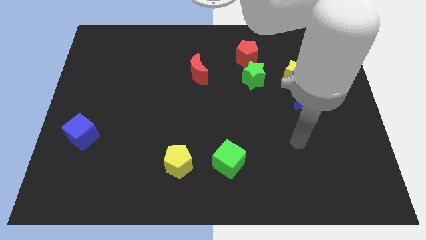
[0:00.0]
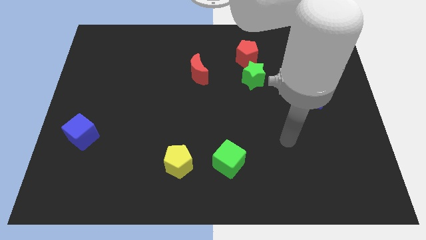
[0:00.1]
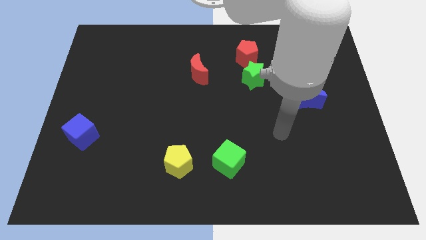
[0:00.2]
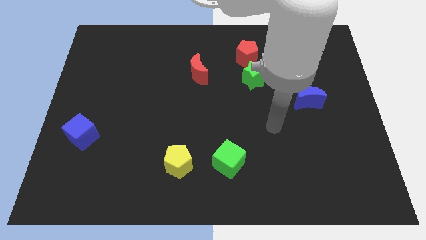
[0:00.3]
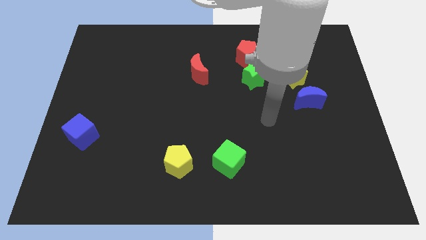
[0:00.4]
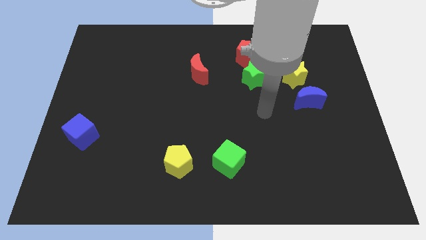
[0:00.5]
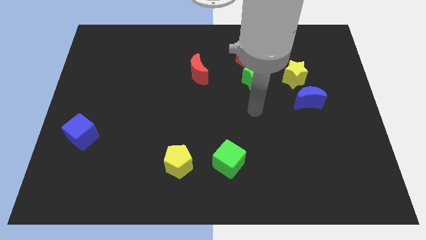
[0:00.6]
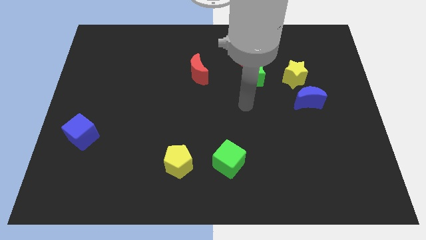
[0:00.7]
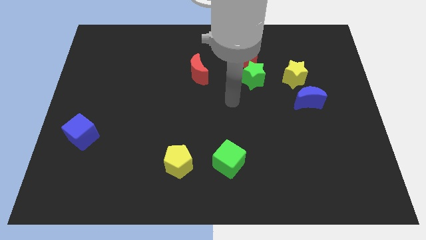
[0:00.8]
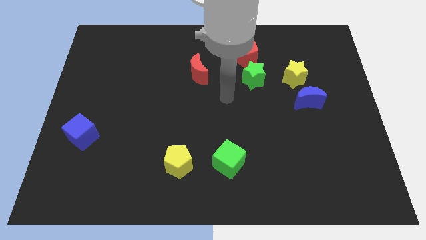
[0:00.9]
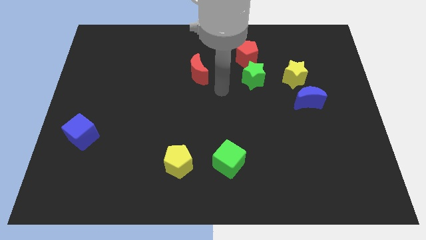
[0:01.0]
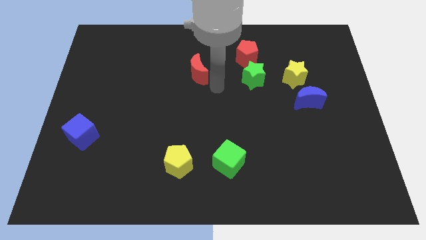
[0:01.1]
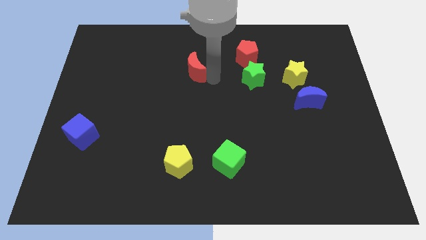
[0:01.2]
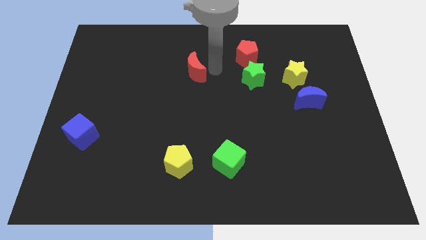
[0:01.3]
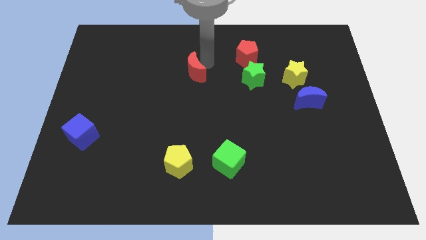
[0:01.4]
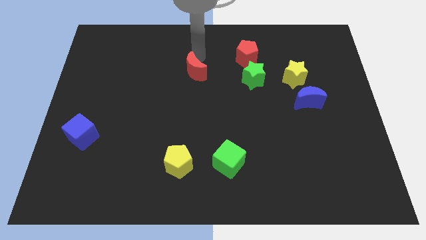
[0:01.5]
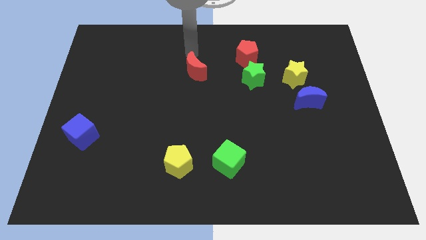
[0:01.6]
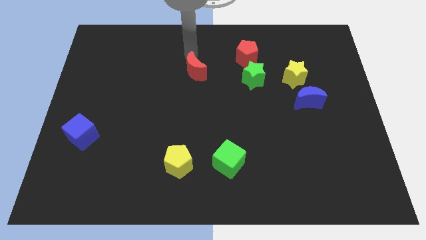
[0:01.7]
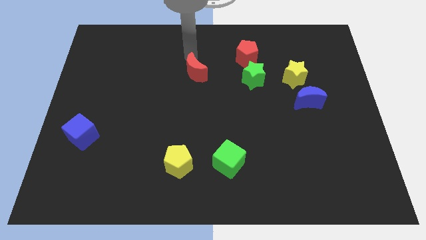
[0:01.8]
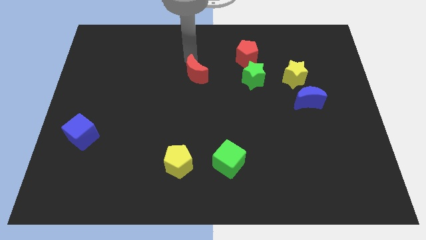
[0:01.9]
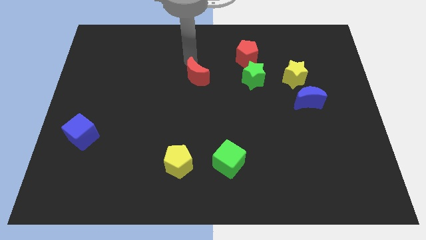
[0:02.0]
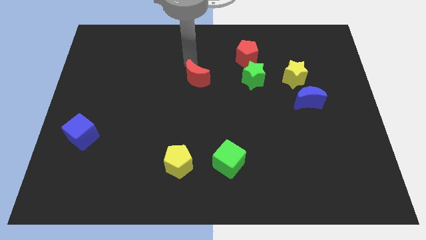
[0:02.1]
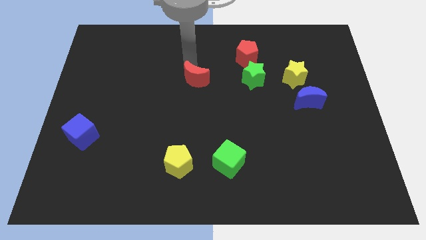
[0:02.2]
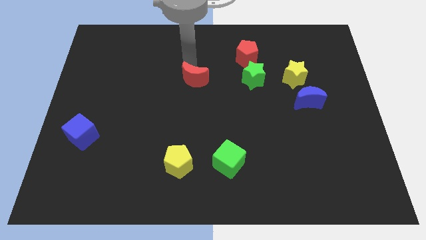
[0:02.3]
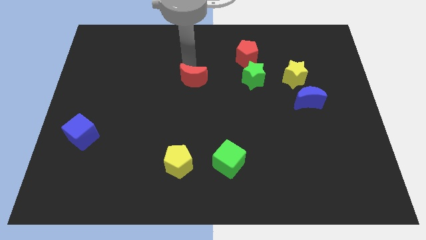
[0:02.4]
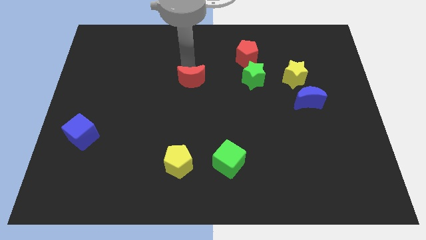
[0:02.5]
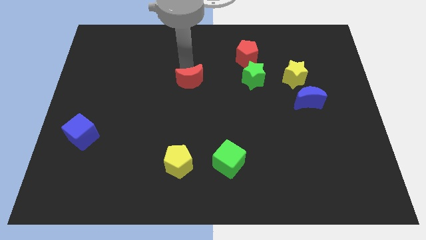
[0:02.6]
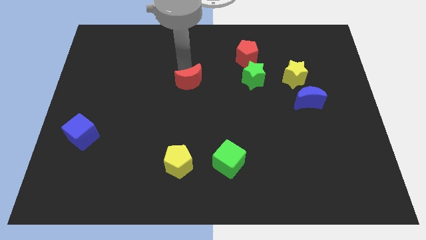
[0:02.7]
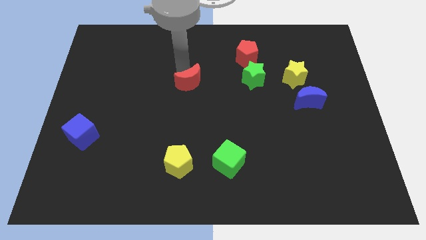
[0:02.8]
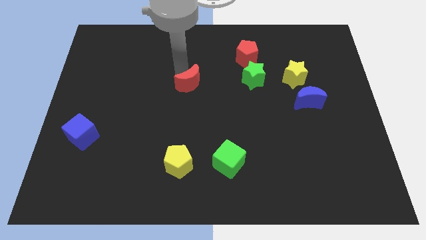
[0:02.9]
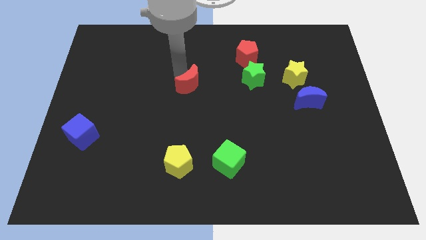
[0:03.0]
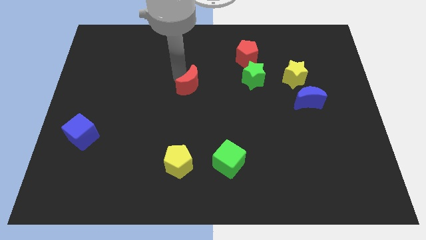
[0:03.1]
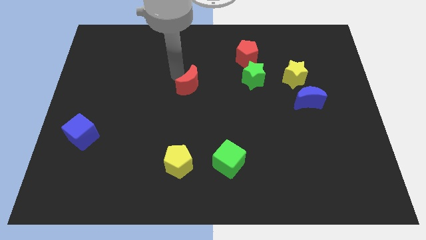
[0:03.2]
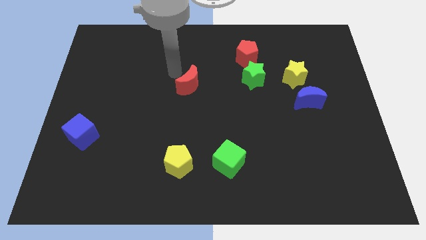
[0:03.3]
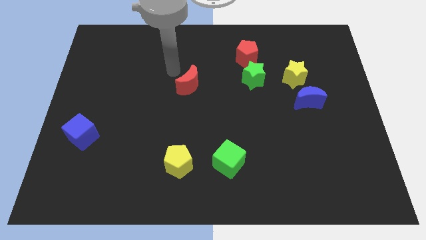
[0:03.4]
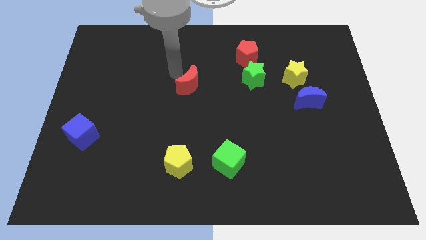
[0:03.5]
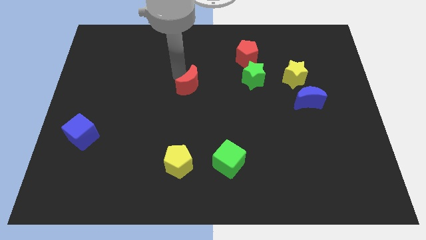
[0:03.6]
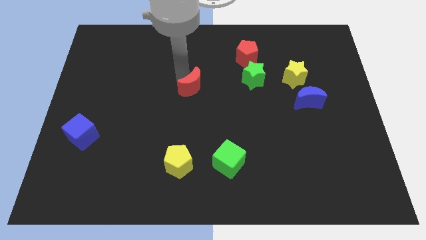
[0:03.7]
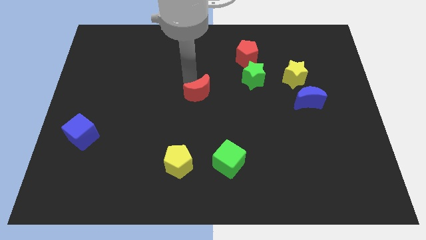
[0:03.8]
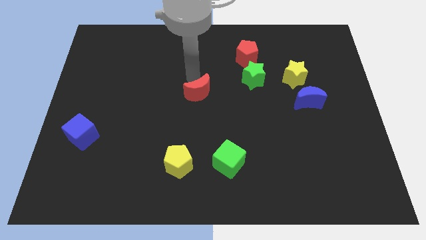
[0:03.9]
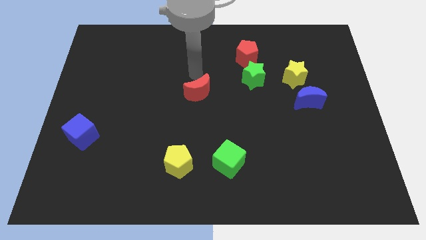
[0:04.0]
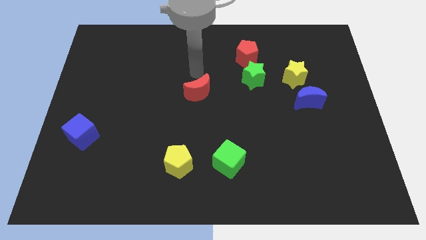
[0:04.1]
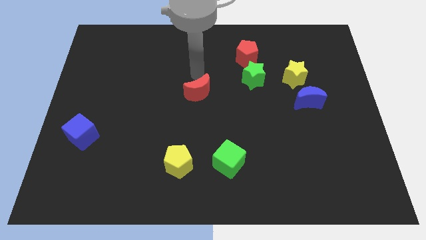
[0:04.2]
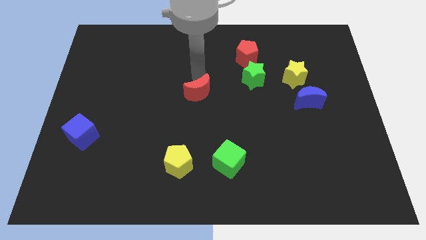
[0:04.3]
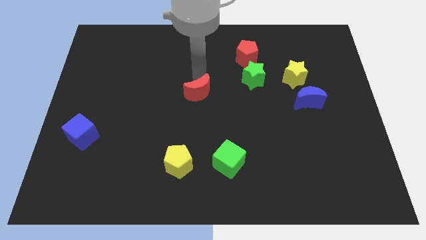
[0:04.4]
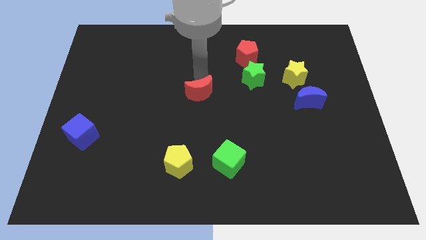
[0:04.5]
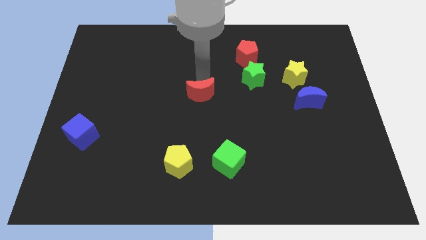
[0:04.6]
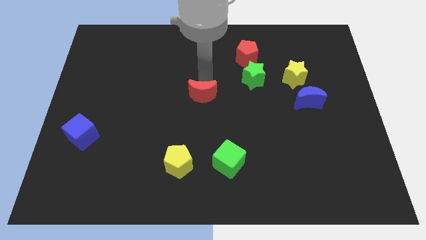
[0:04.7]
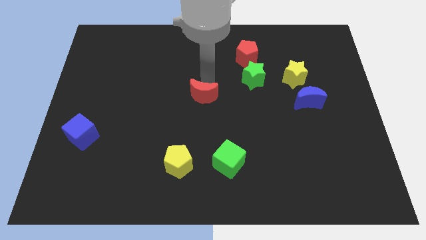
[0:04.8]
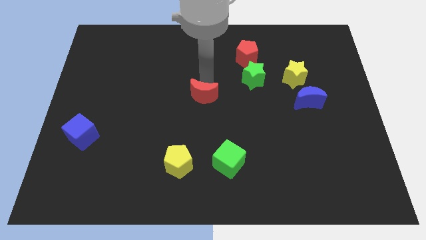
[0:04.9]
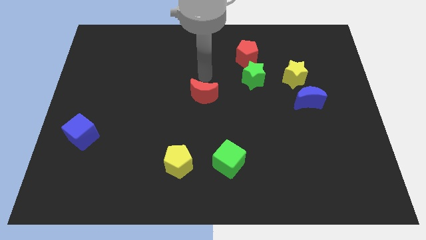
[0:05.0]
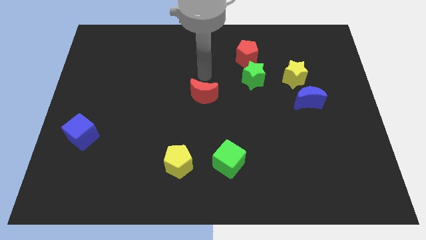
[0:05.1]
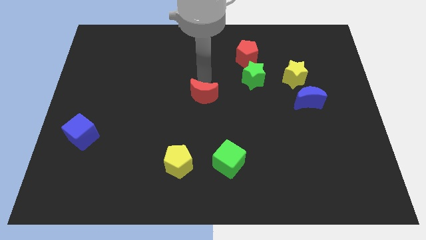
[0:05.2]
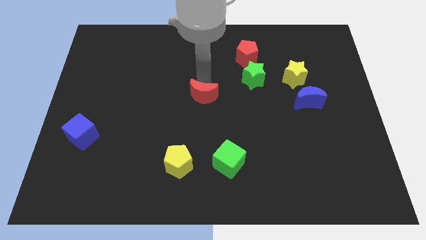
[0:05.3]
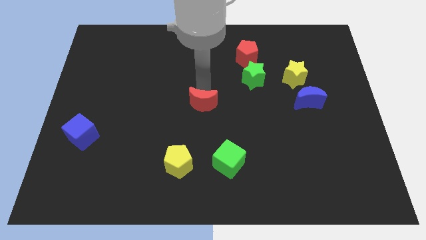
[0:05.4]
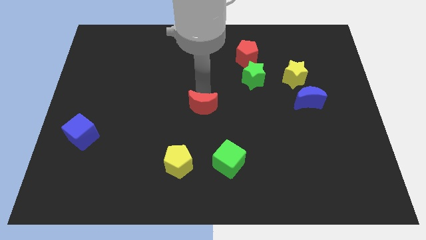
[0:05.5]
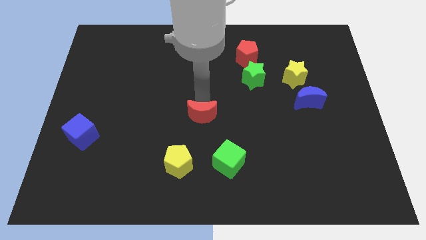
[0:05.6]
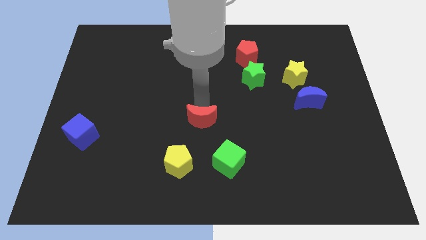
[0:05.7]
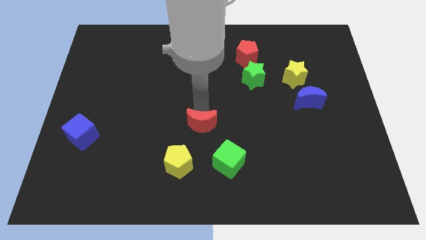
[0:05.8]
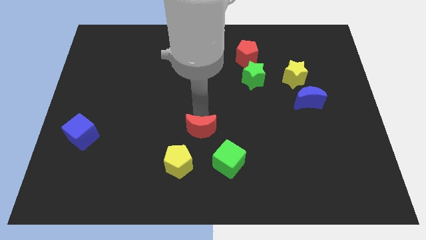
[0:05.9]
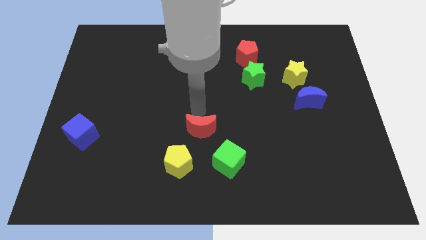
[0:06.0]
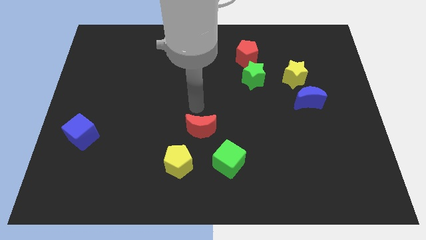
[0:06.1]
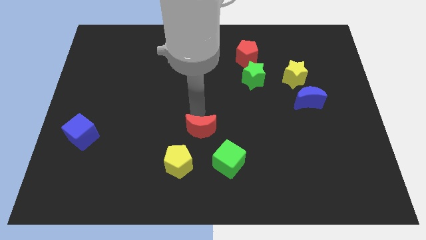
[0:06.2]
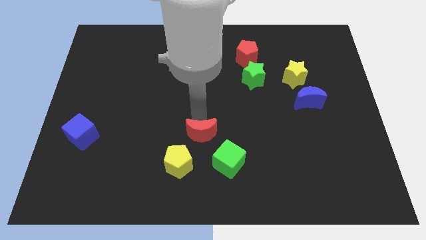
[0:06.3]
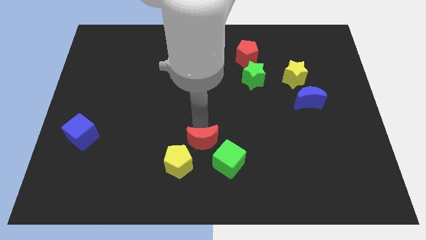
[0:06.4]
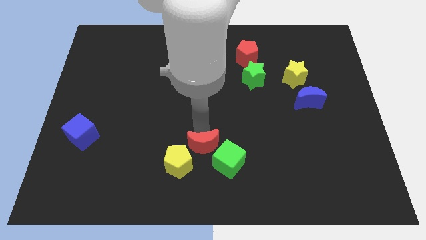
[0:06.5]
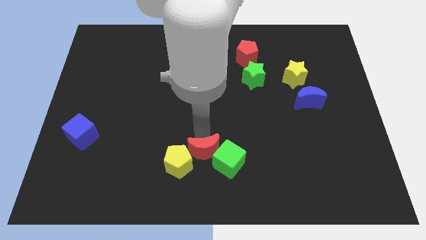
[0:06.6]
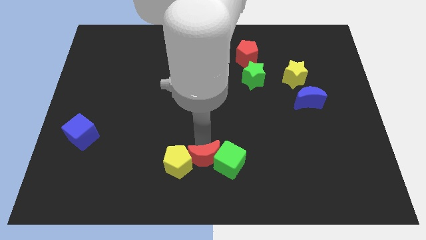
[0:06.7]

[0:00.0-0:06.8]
put the red moon to the bottom side
